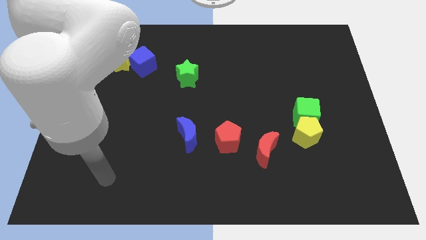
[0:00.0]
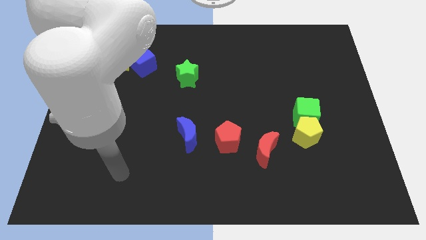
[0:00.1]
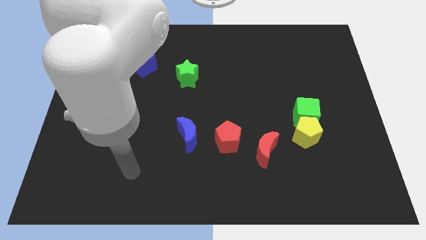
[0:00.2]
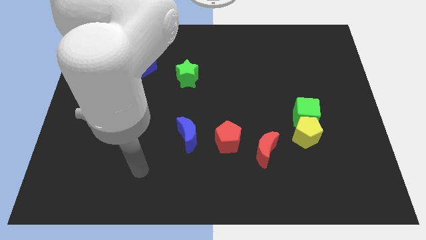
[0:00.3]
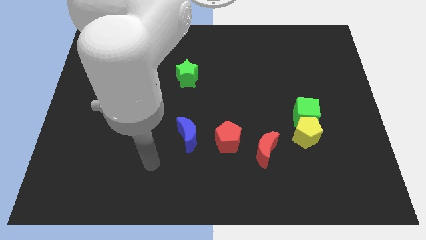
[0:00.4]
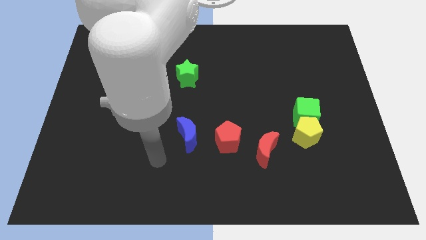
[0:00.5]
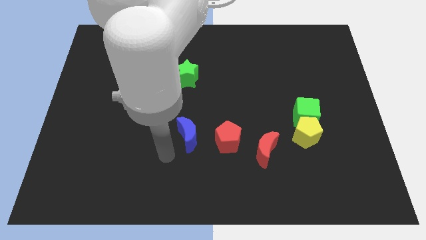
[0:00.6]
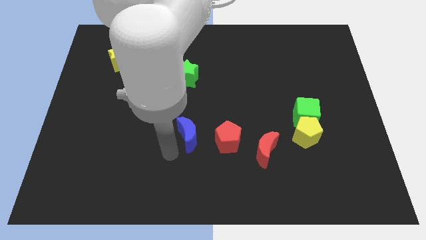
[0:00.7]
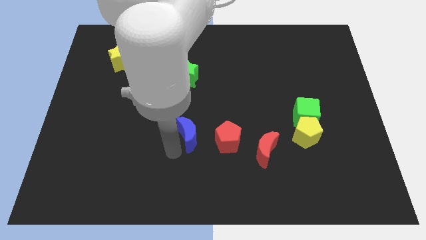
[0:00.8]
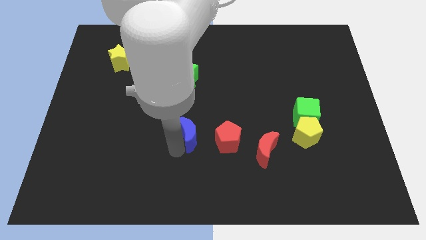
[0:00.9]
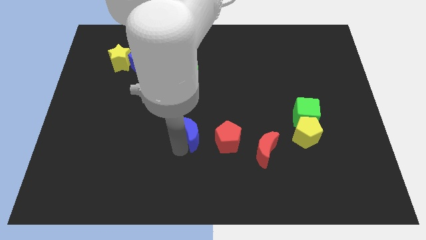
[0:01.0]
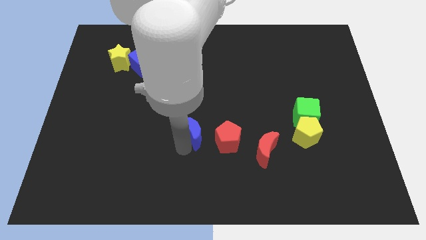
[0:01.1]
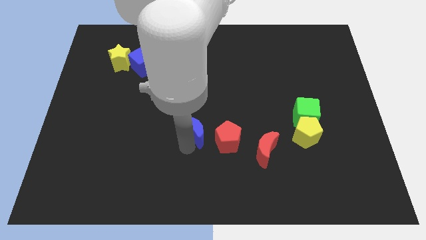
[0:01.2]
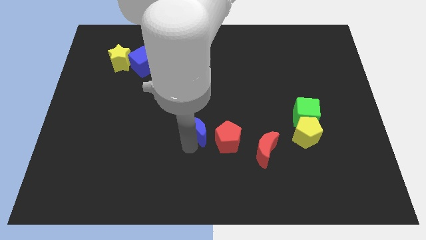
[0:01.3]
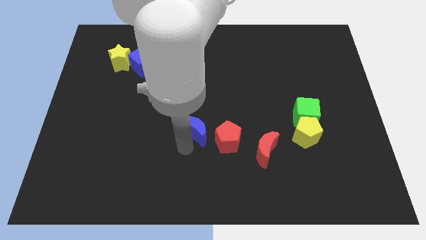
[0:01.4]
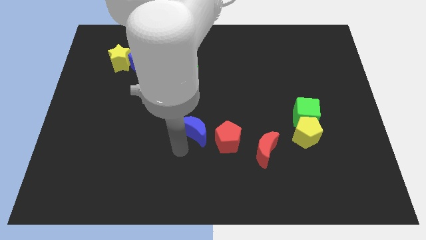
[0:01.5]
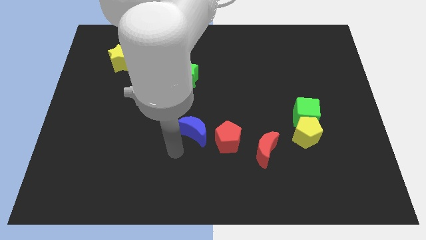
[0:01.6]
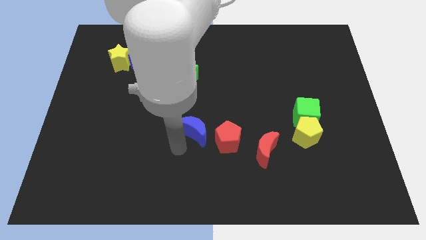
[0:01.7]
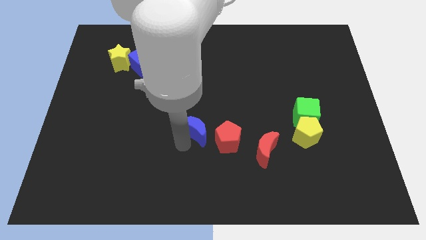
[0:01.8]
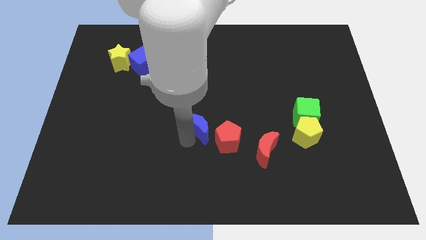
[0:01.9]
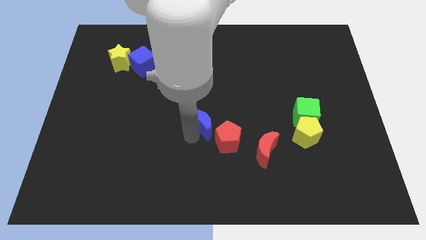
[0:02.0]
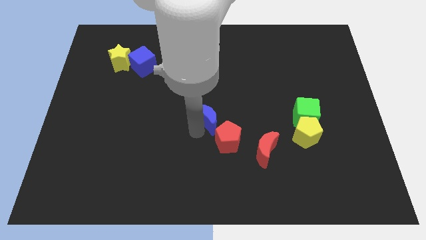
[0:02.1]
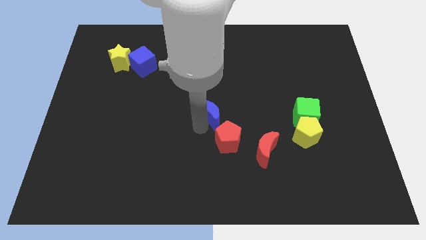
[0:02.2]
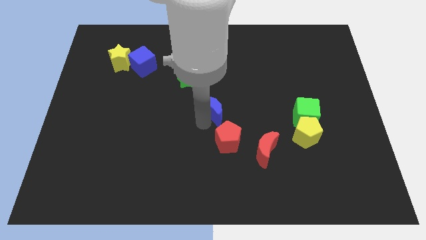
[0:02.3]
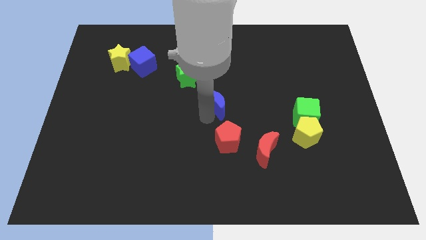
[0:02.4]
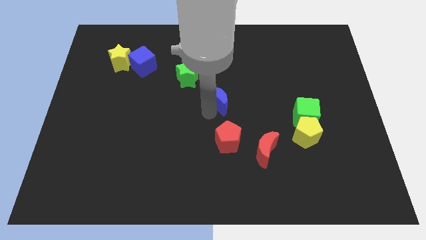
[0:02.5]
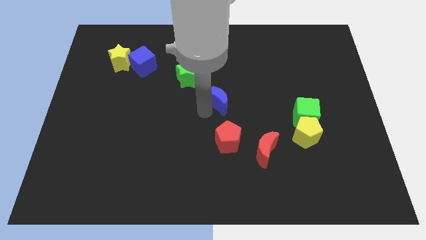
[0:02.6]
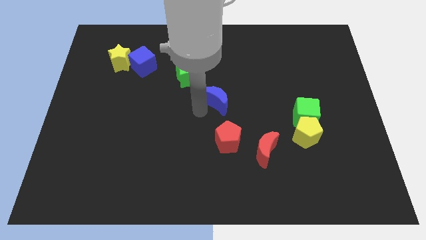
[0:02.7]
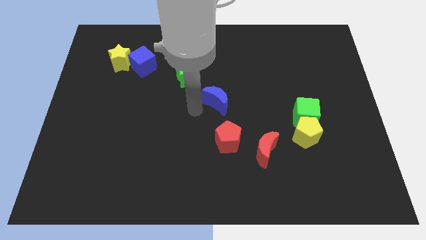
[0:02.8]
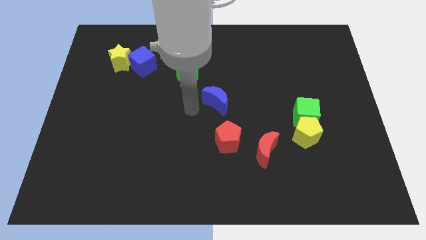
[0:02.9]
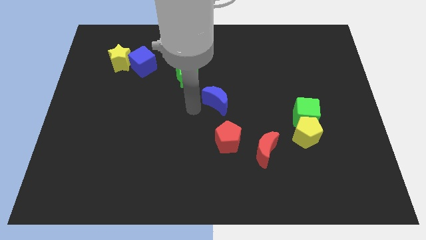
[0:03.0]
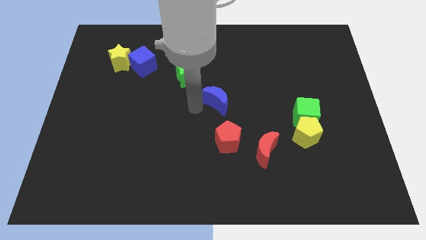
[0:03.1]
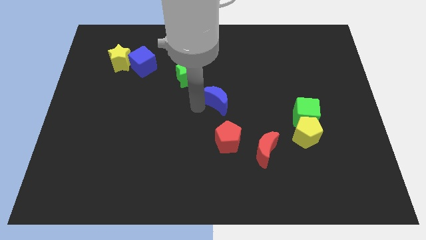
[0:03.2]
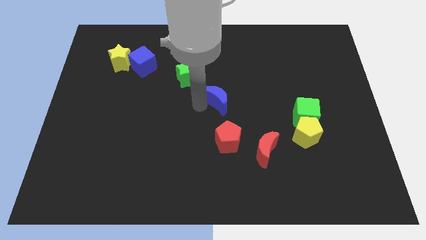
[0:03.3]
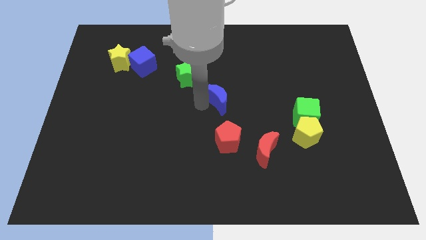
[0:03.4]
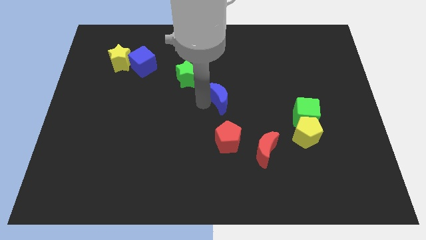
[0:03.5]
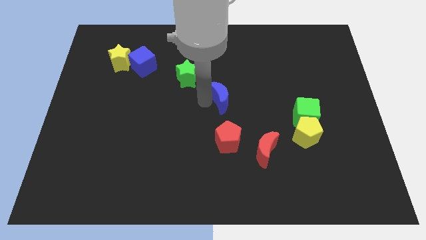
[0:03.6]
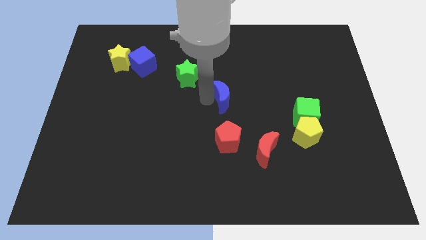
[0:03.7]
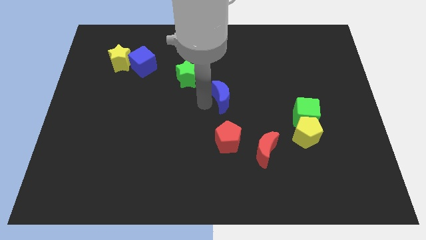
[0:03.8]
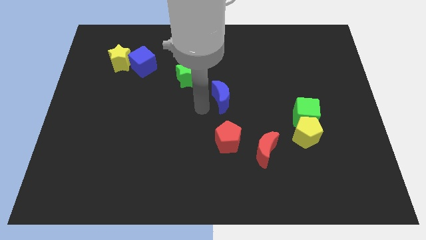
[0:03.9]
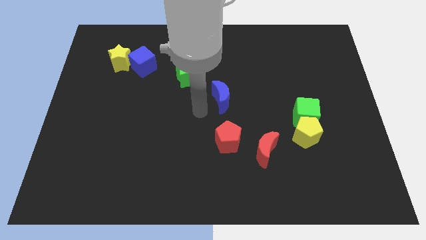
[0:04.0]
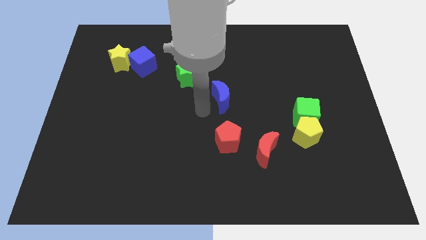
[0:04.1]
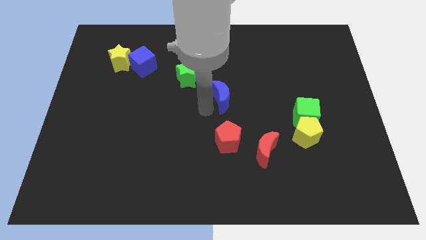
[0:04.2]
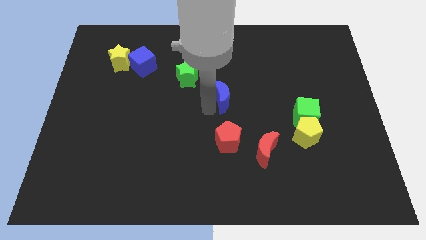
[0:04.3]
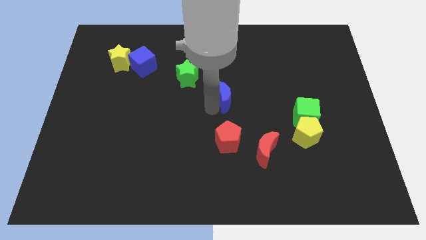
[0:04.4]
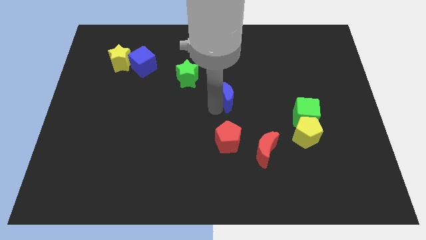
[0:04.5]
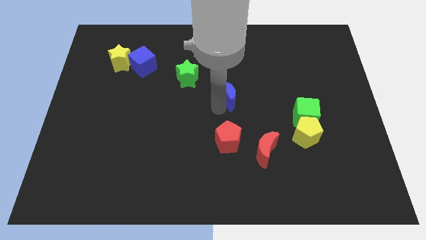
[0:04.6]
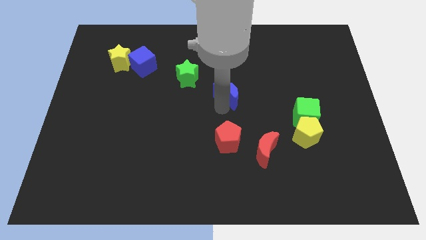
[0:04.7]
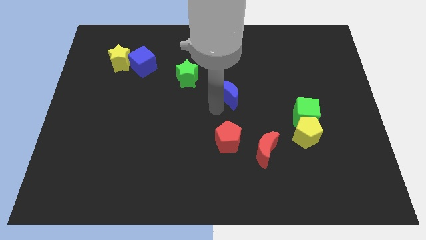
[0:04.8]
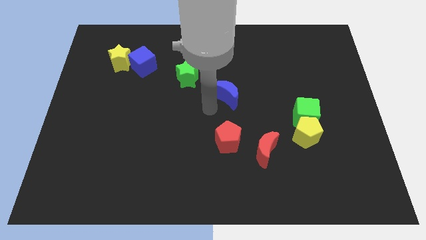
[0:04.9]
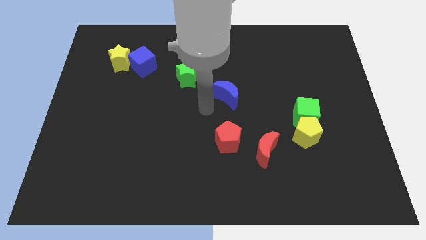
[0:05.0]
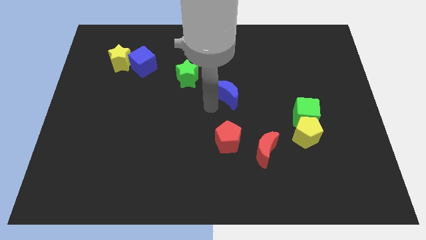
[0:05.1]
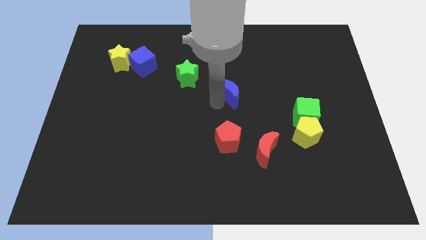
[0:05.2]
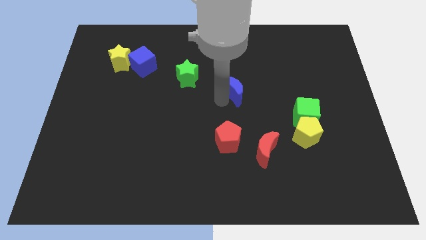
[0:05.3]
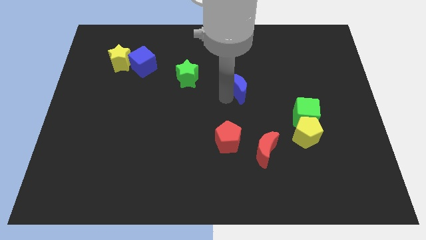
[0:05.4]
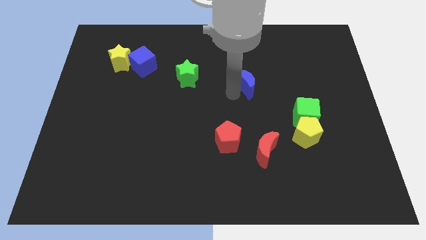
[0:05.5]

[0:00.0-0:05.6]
push the blue moon upwards and then to the right

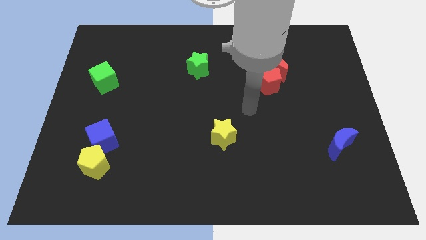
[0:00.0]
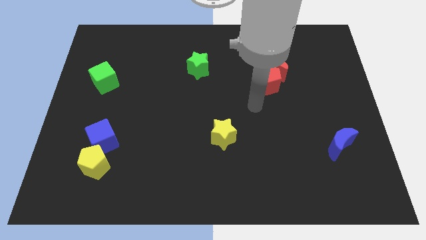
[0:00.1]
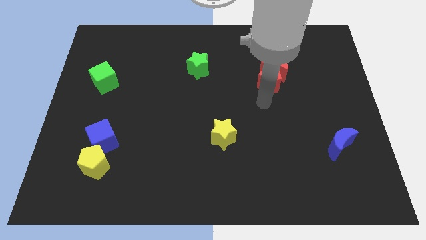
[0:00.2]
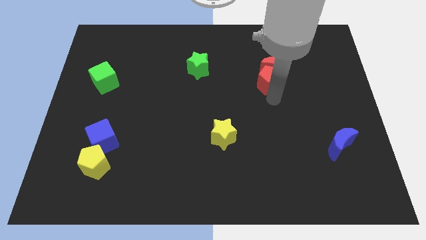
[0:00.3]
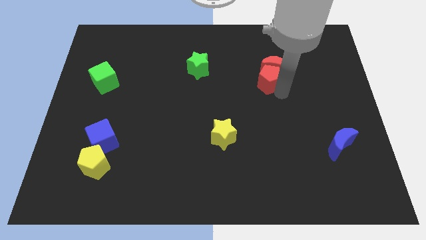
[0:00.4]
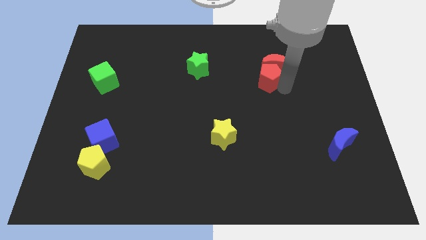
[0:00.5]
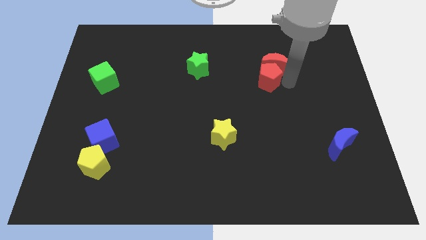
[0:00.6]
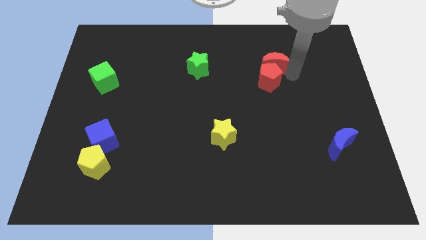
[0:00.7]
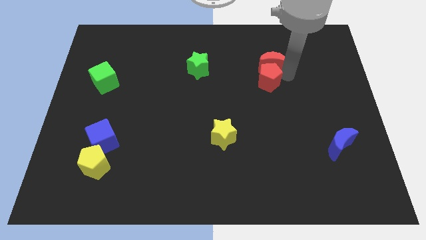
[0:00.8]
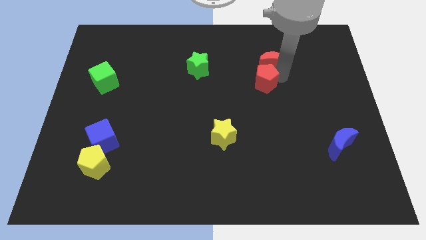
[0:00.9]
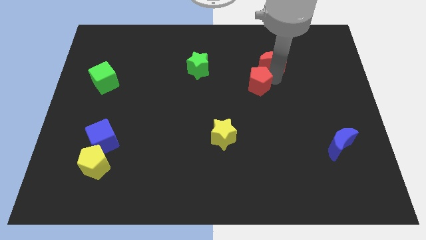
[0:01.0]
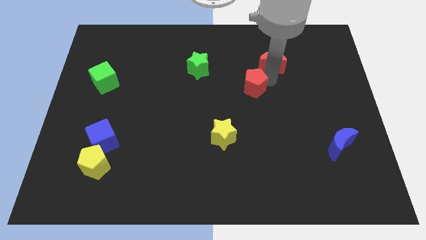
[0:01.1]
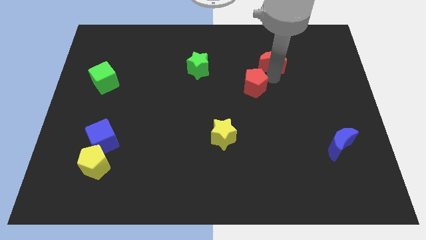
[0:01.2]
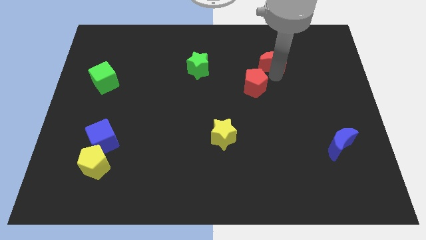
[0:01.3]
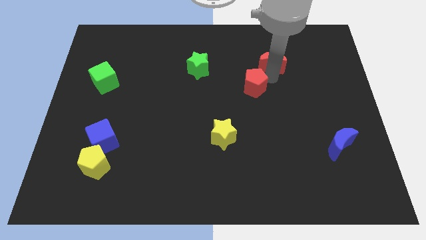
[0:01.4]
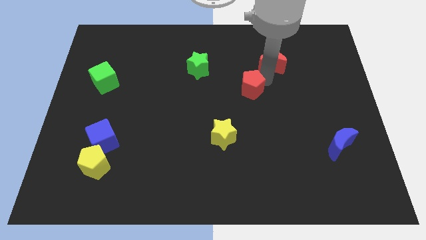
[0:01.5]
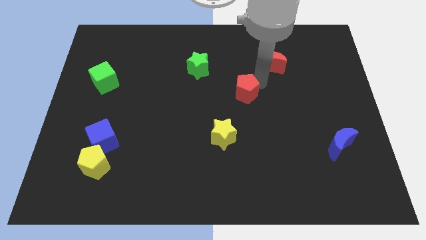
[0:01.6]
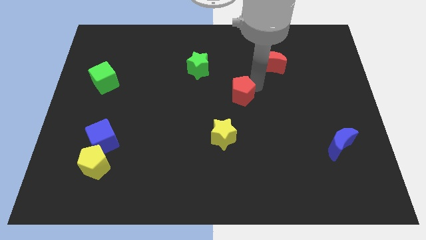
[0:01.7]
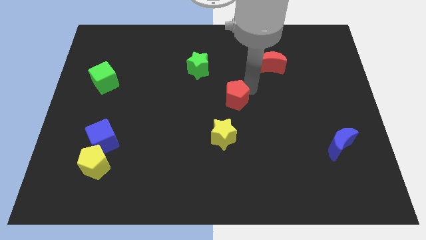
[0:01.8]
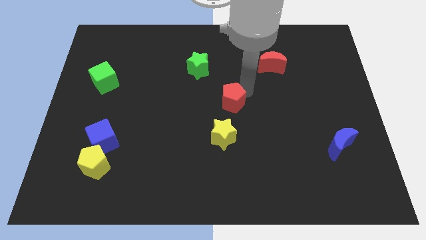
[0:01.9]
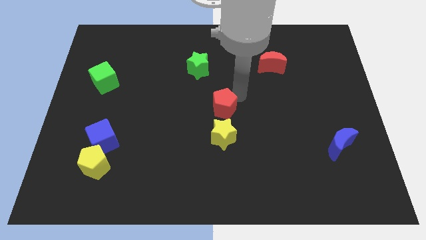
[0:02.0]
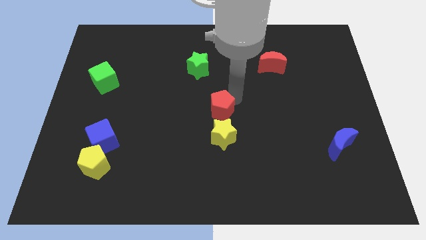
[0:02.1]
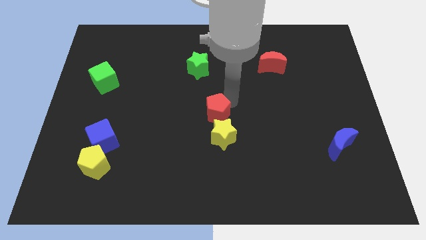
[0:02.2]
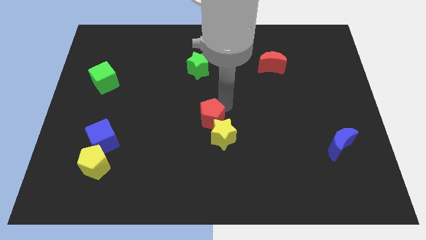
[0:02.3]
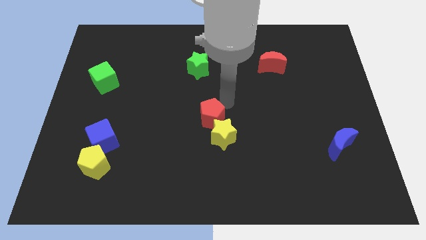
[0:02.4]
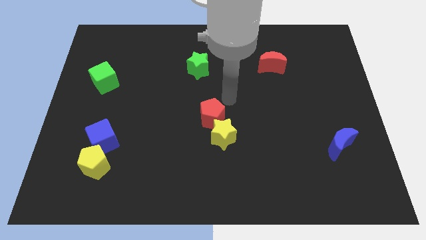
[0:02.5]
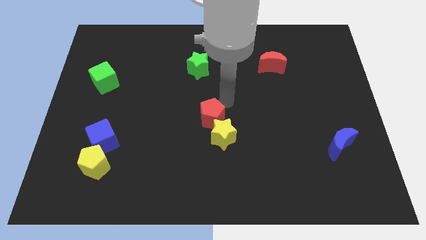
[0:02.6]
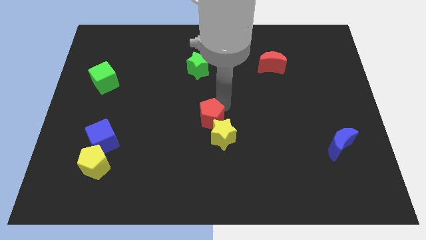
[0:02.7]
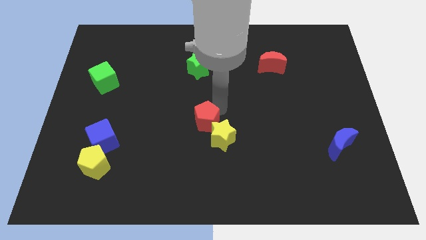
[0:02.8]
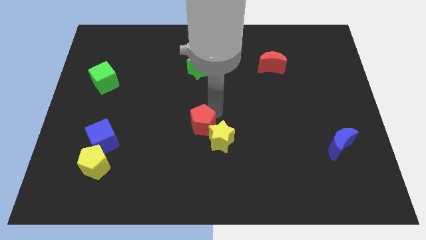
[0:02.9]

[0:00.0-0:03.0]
slide the red pentagon diagonally downwards and left
